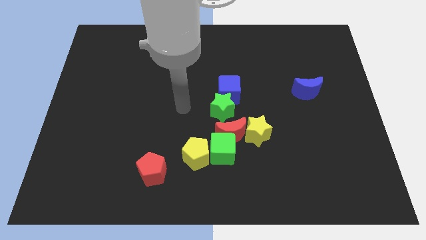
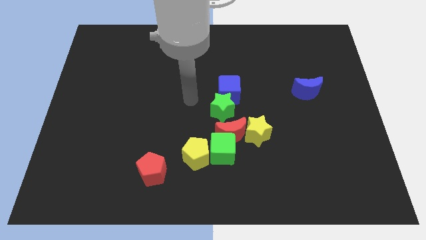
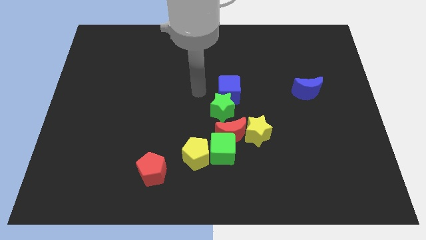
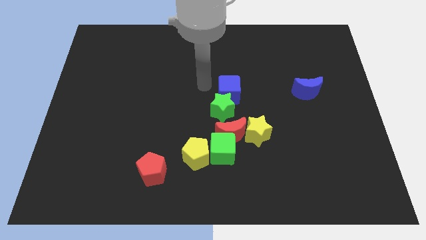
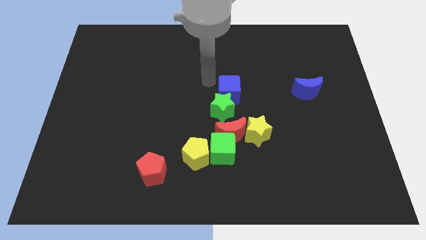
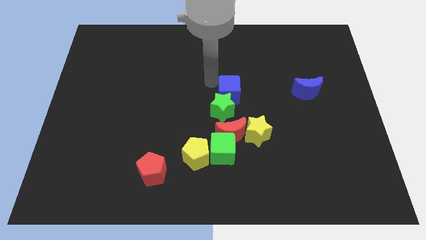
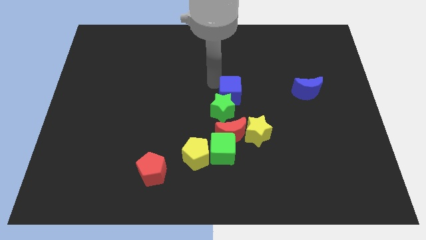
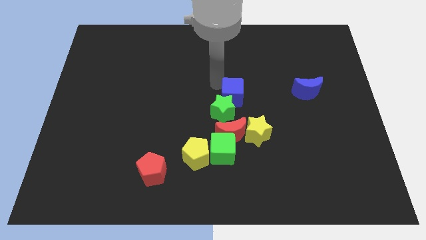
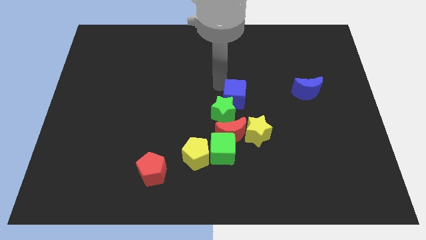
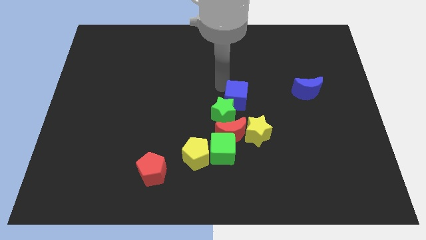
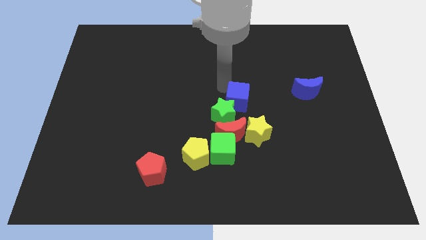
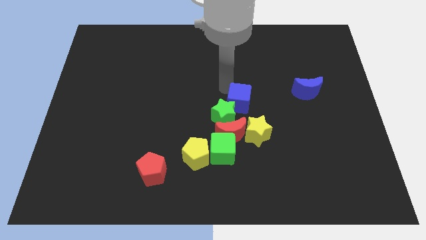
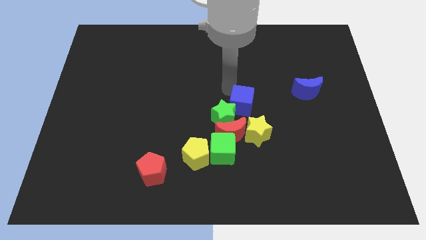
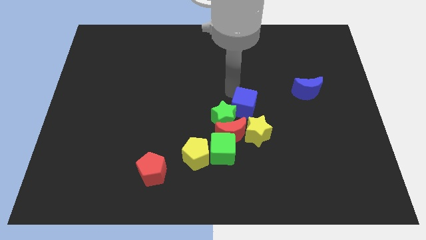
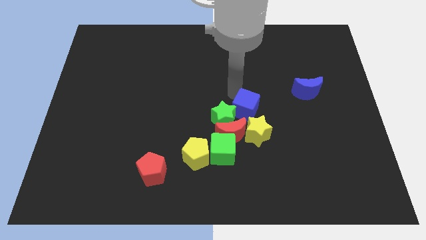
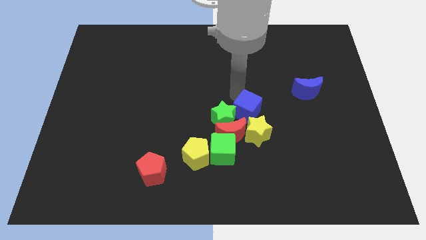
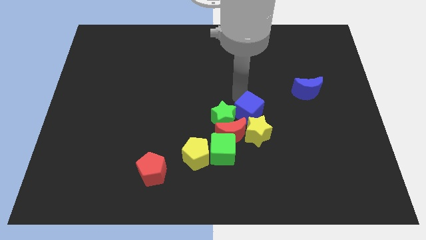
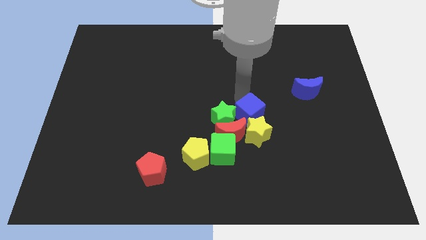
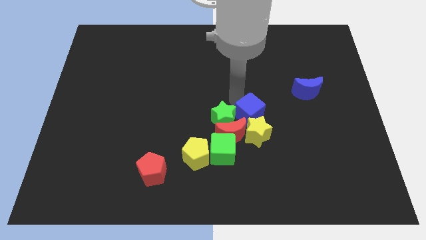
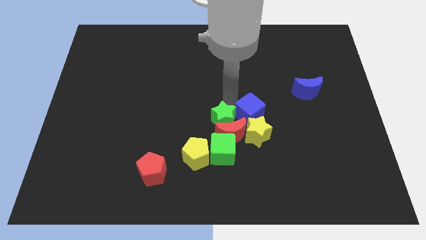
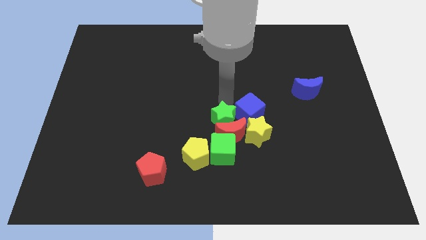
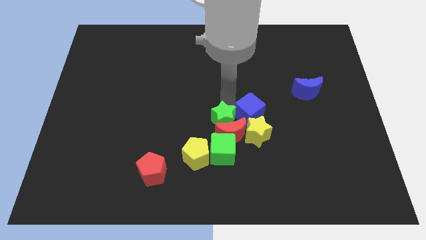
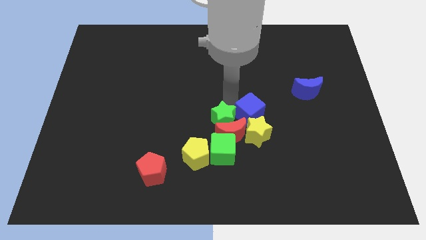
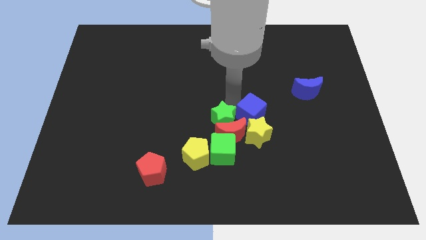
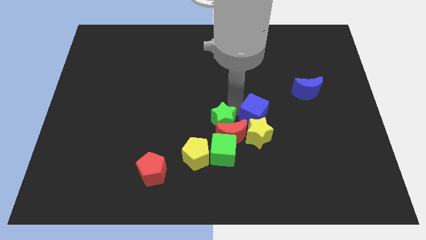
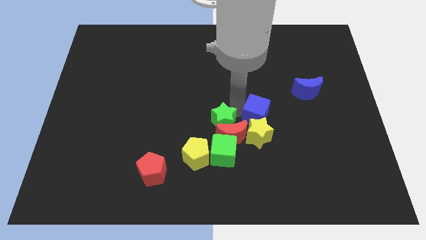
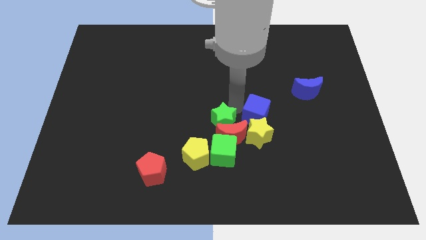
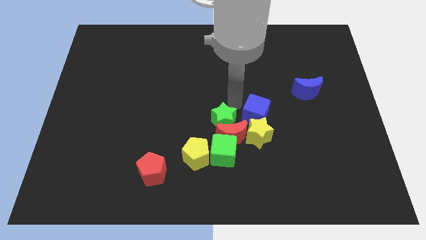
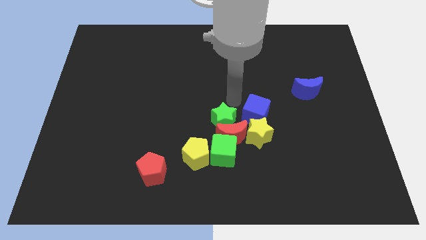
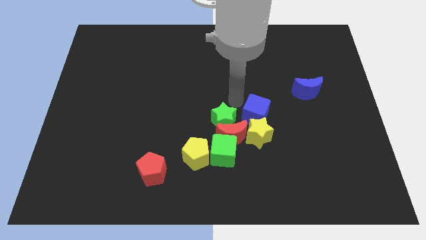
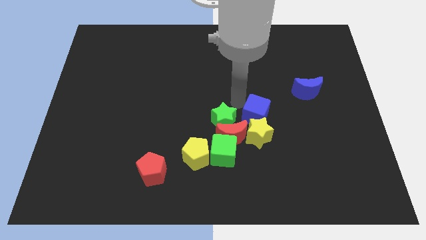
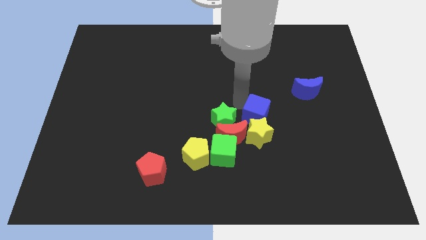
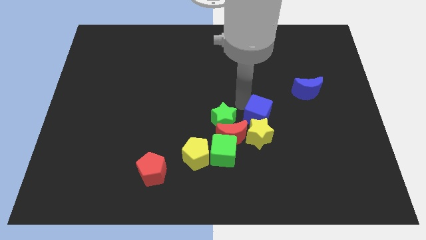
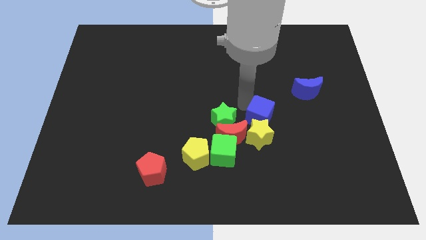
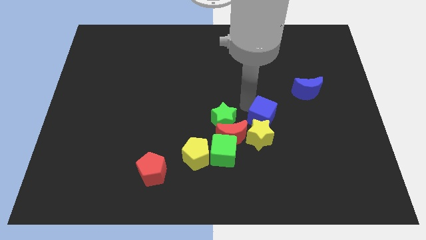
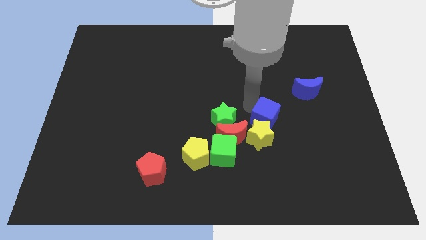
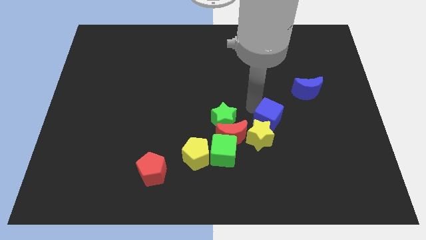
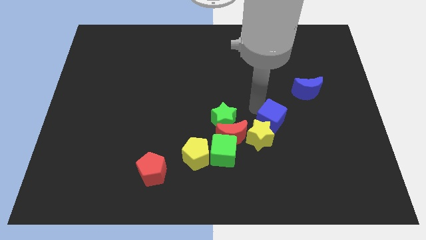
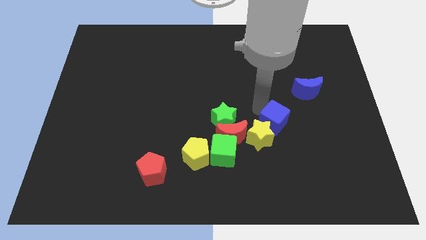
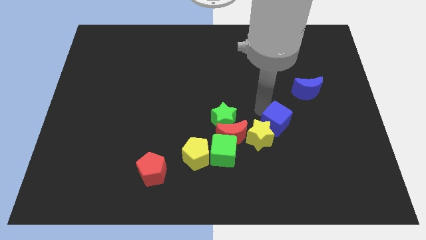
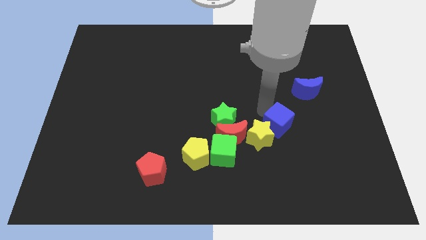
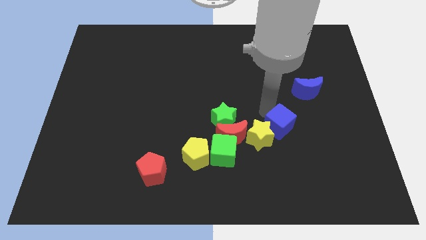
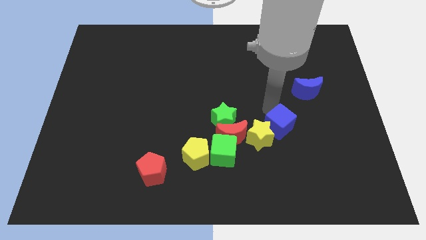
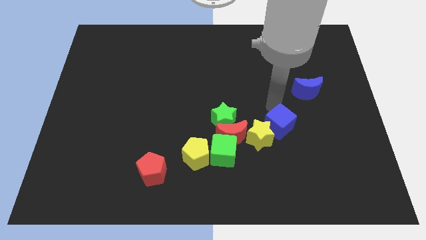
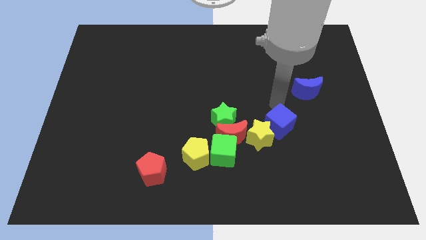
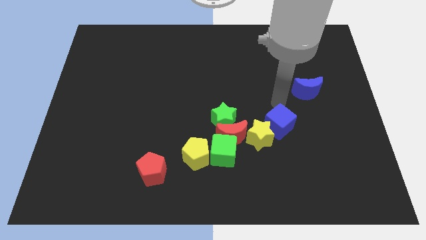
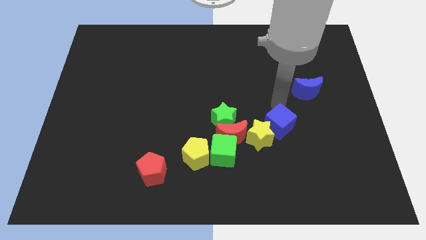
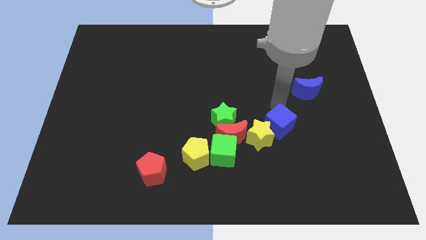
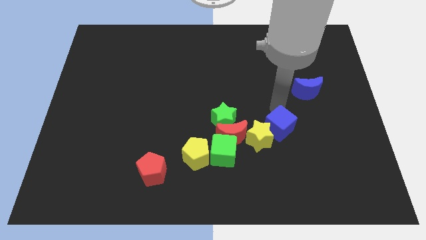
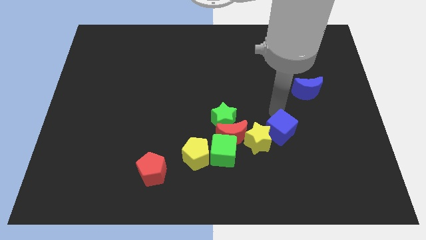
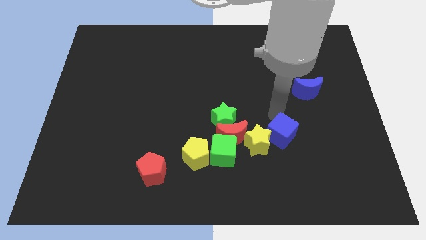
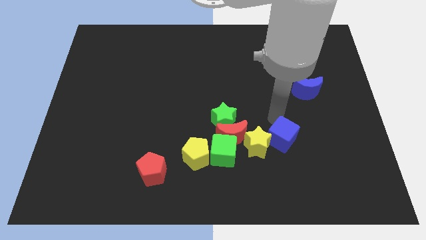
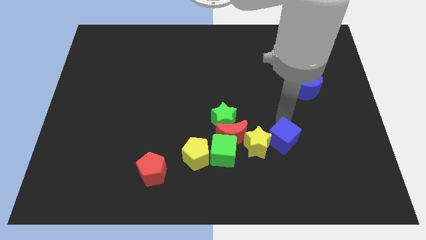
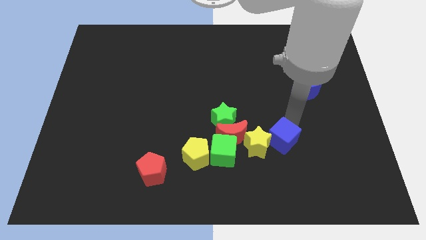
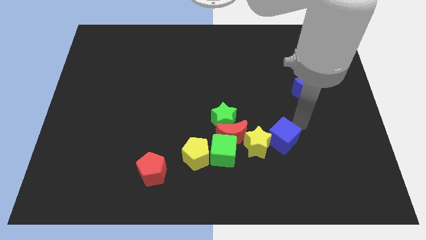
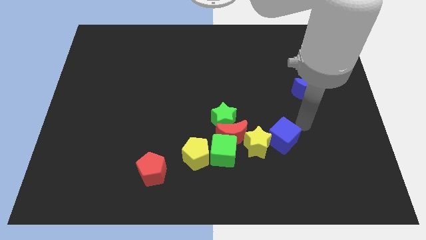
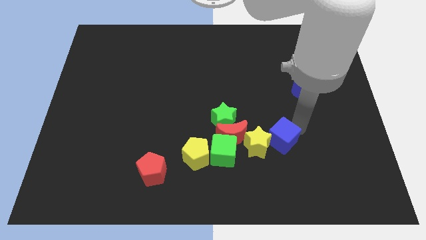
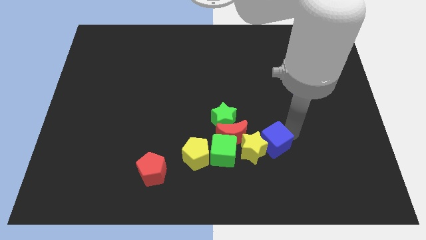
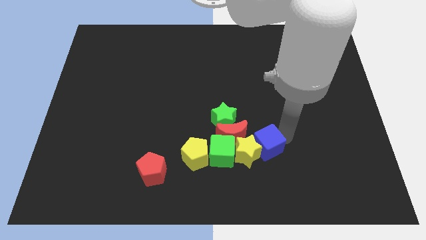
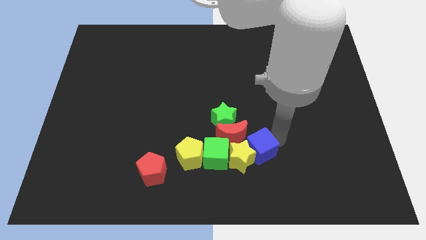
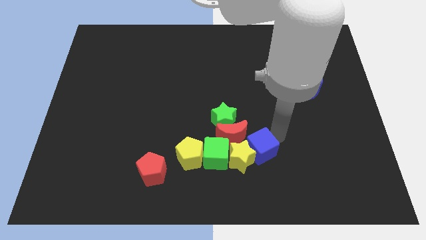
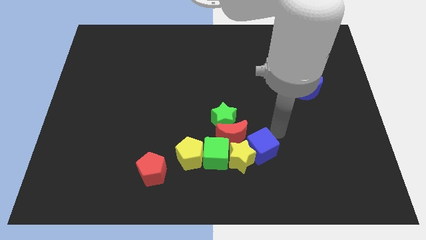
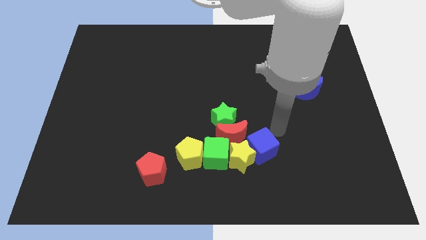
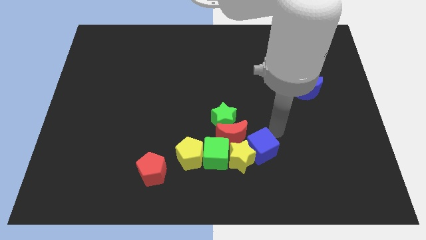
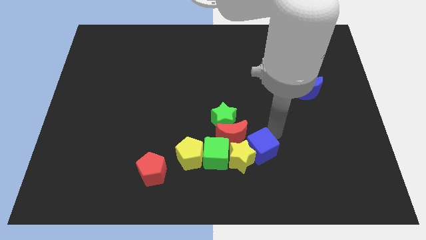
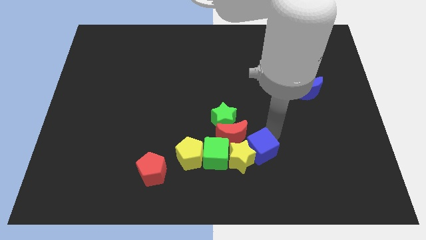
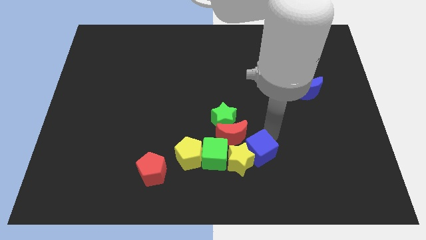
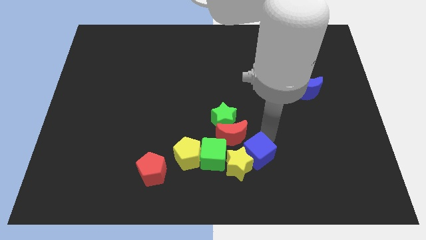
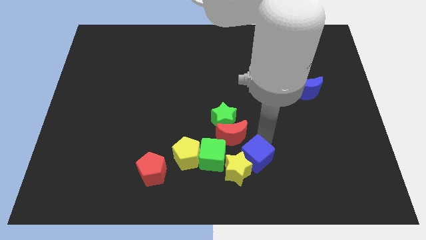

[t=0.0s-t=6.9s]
move the blue cube to the bottom side of the red moon
